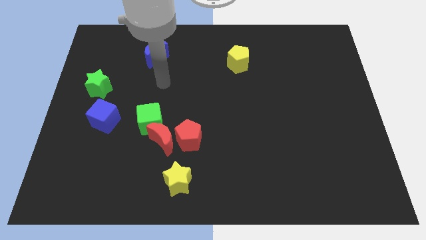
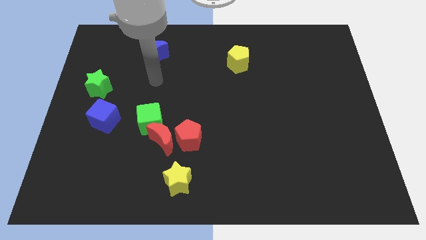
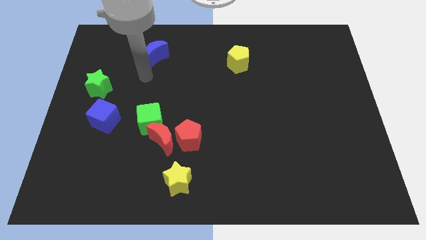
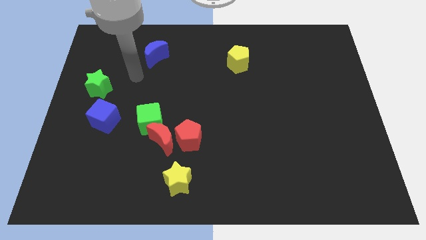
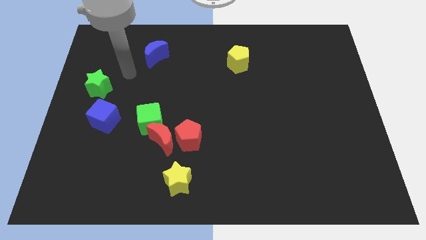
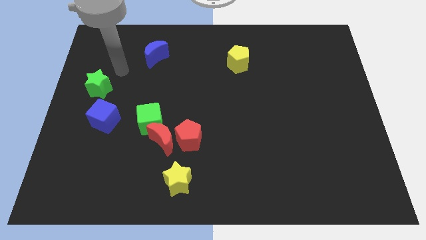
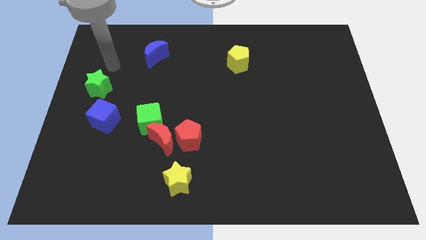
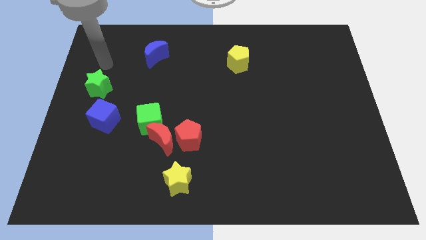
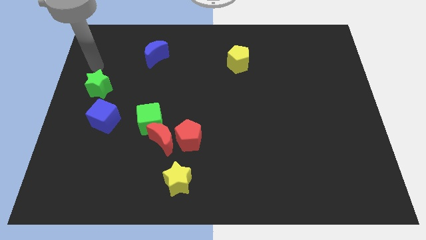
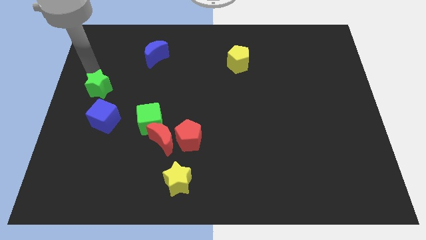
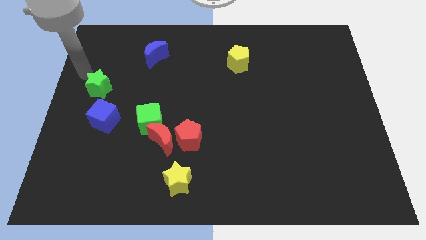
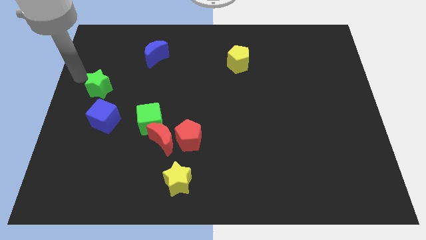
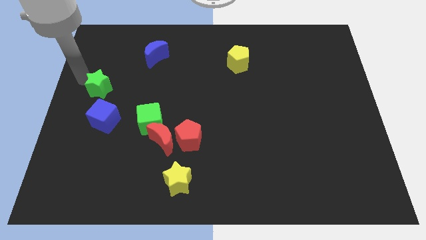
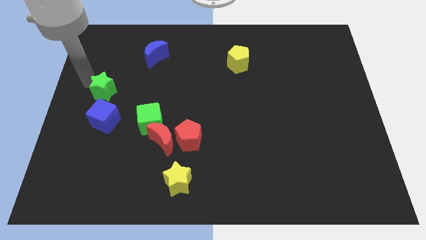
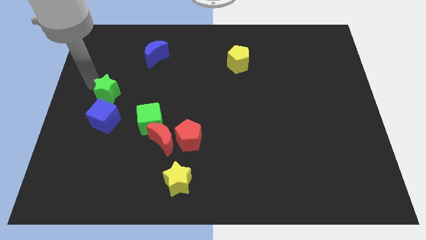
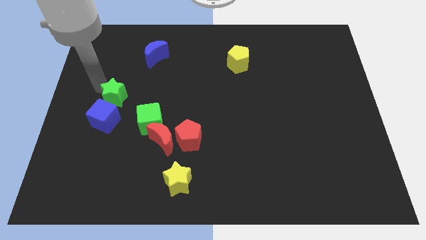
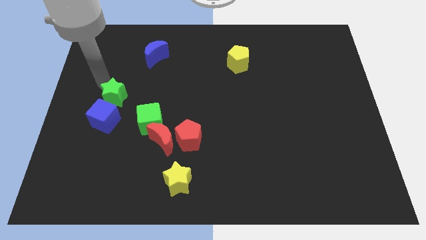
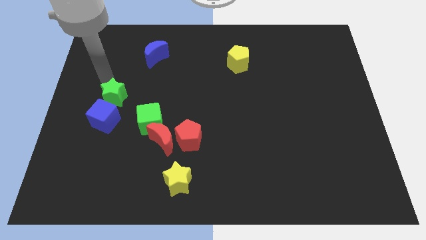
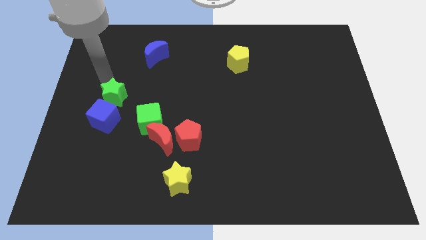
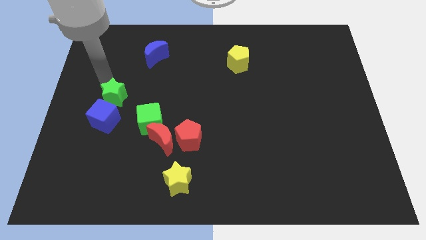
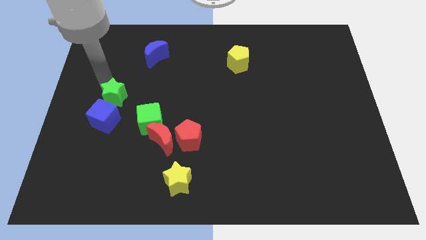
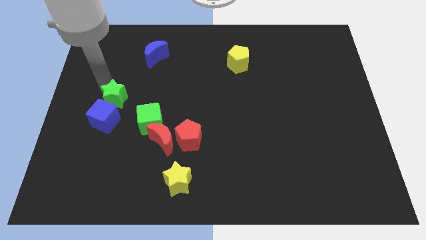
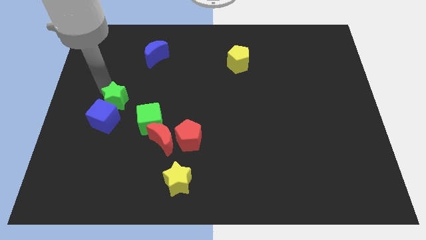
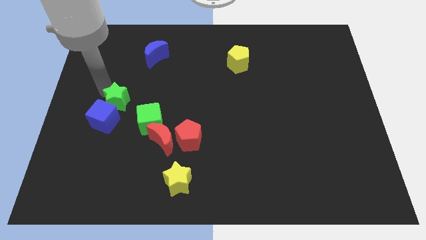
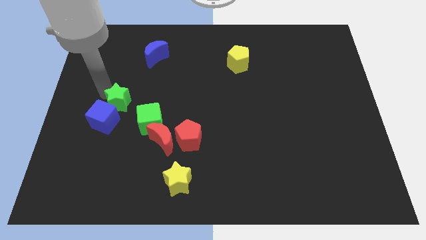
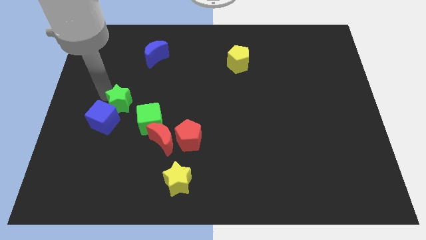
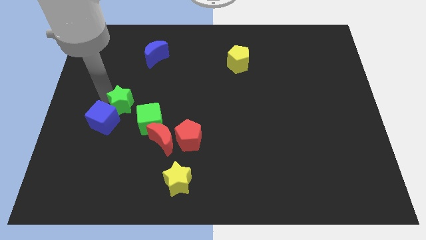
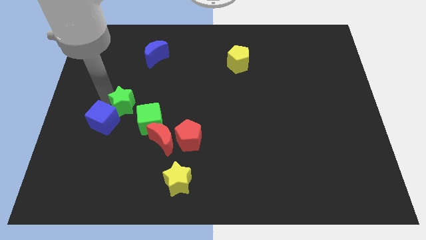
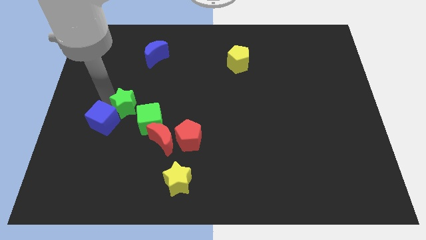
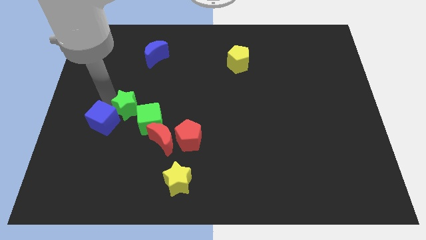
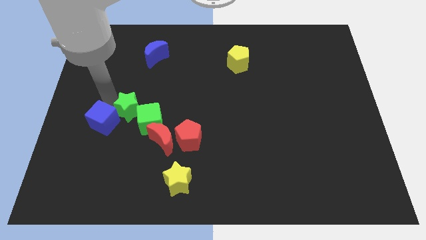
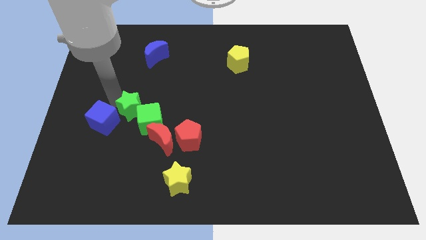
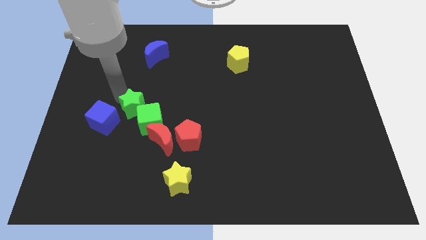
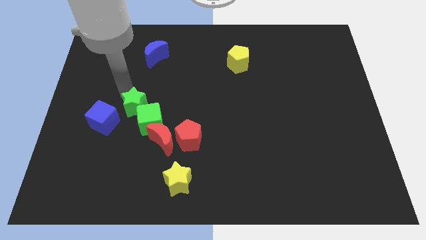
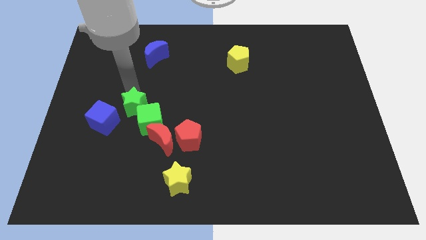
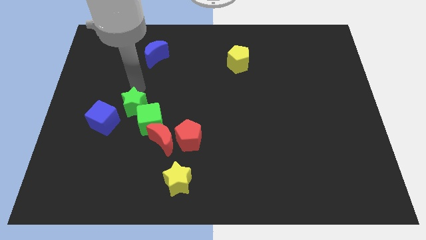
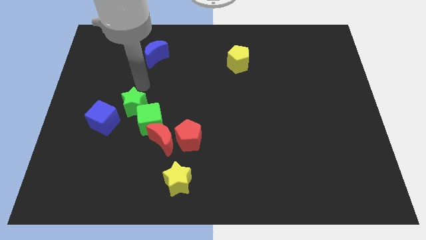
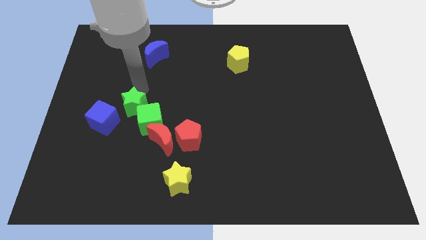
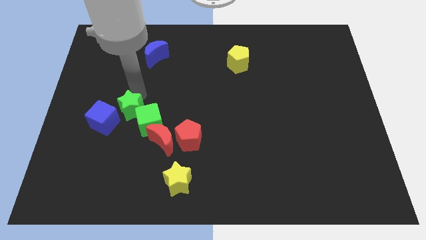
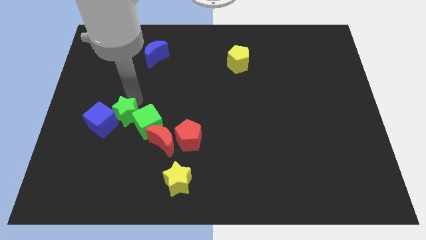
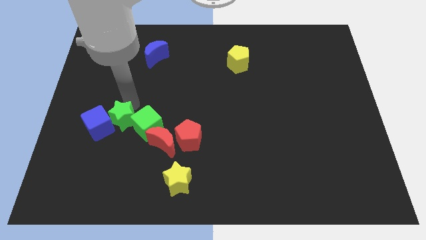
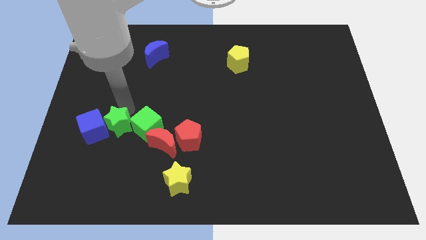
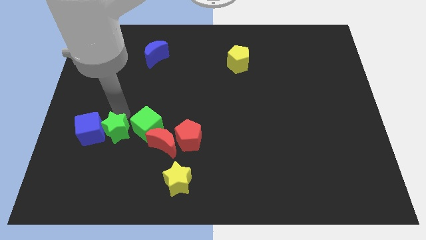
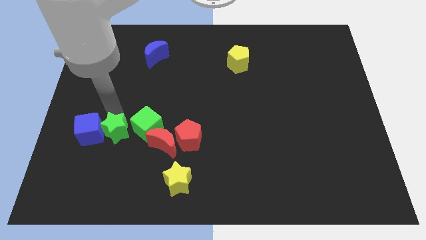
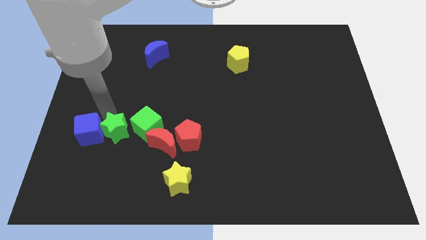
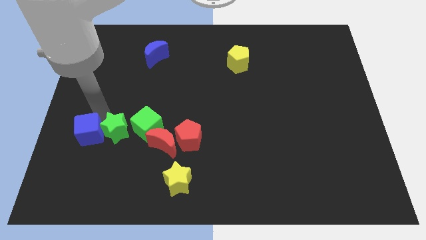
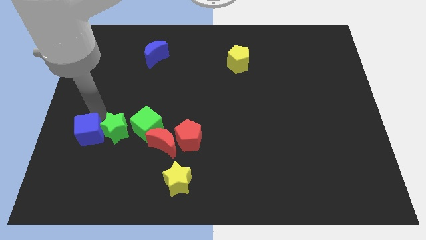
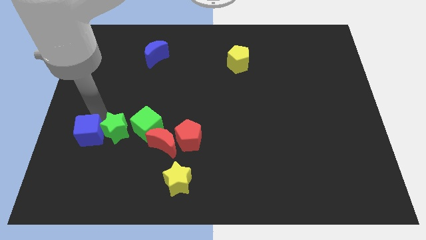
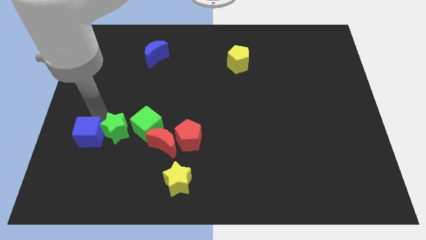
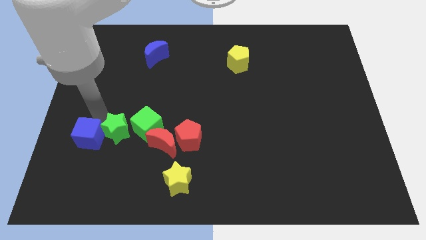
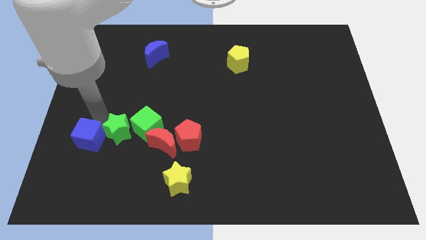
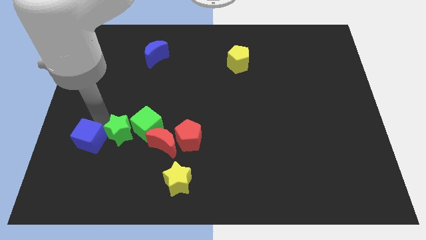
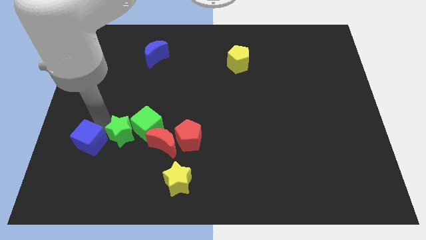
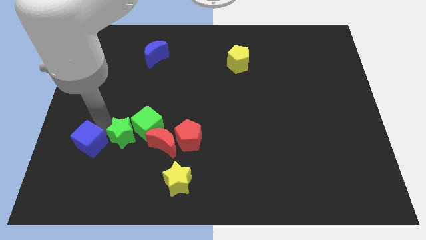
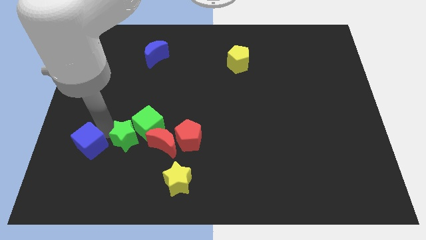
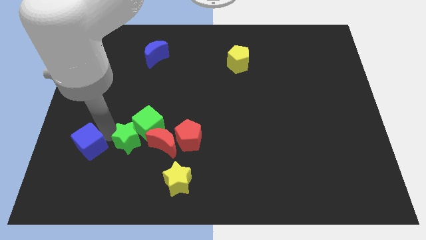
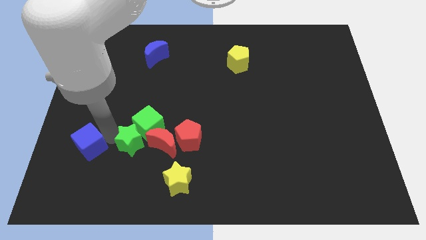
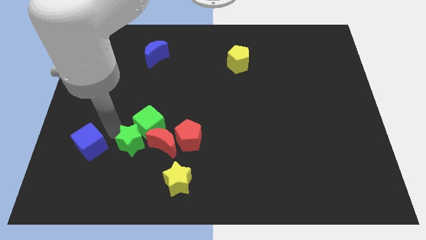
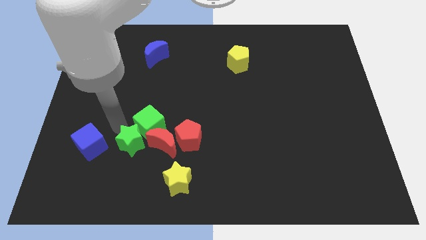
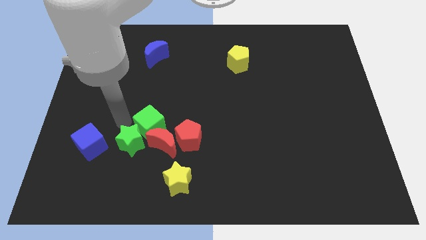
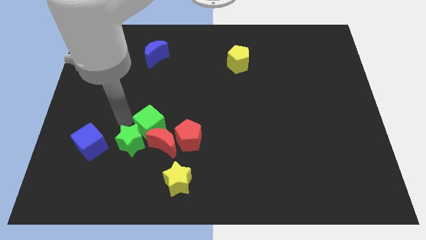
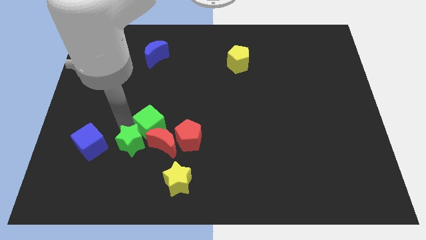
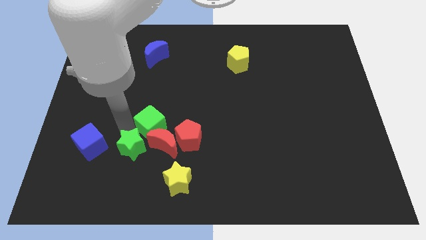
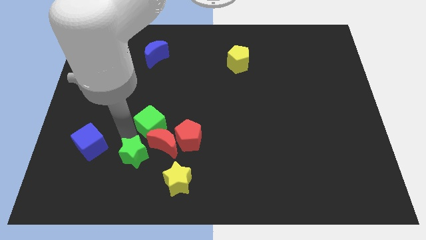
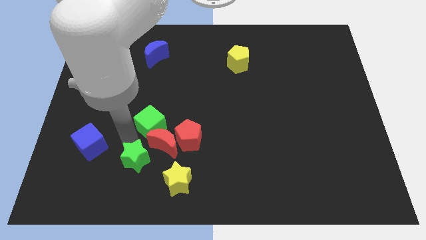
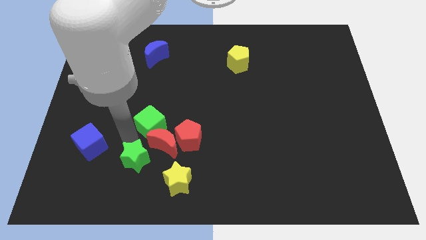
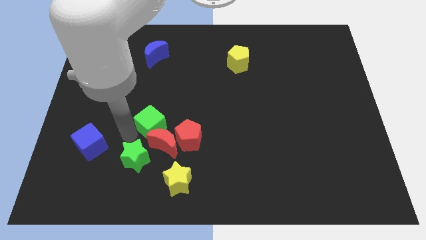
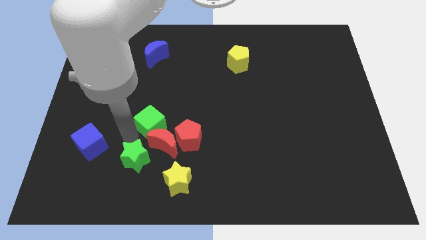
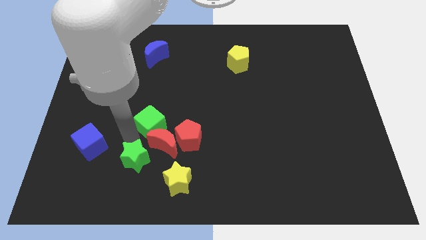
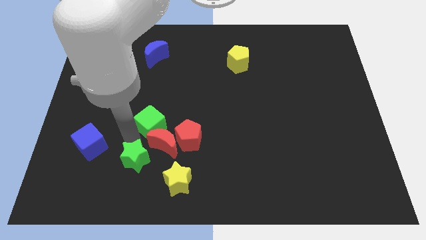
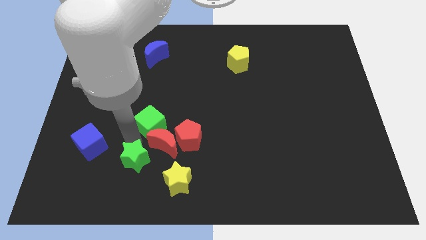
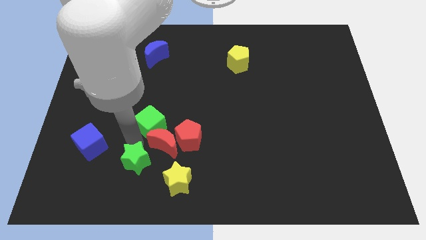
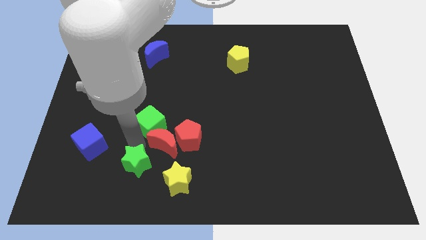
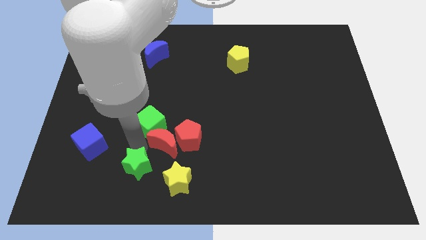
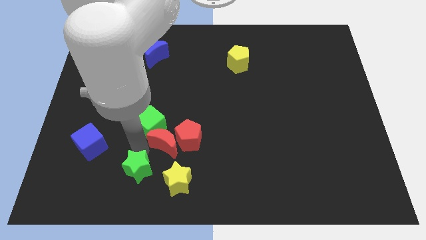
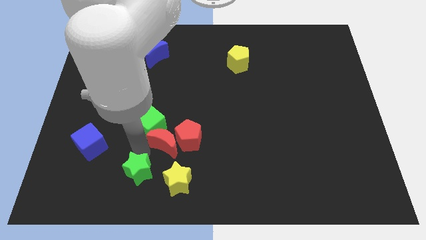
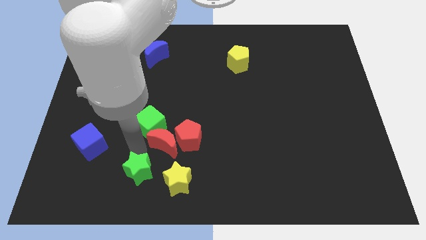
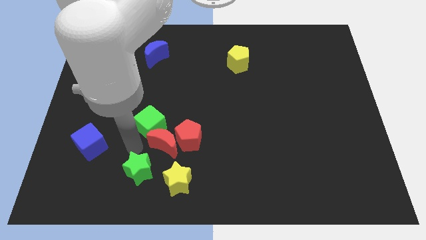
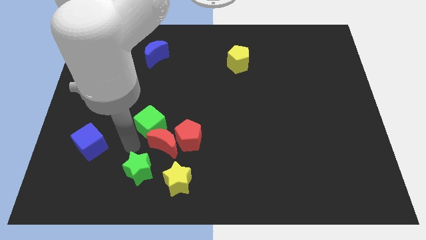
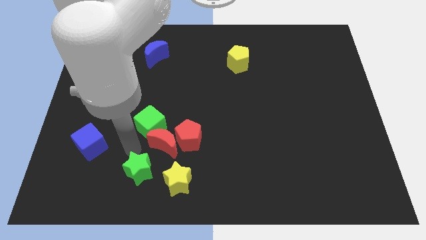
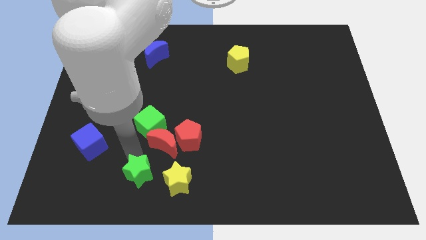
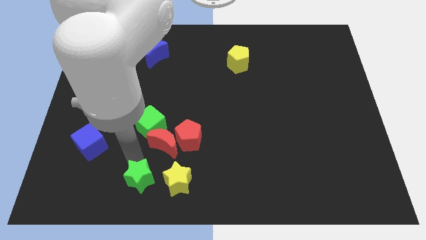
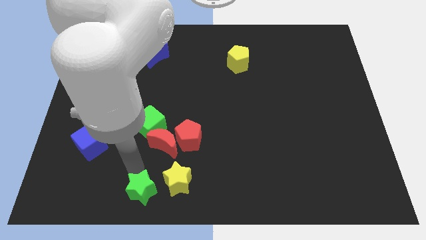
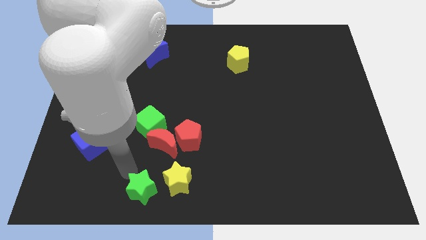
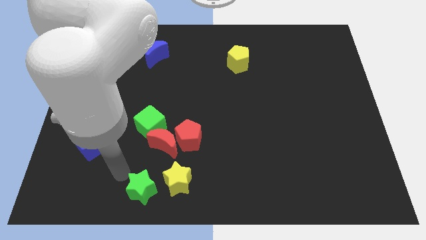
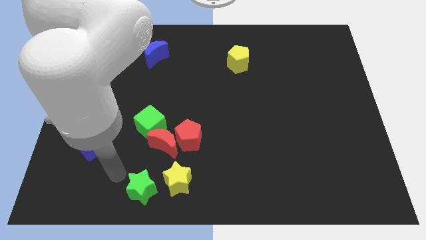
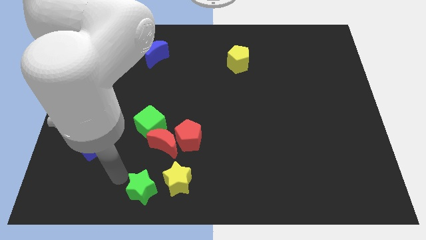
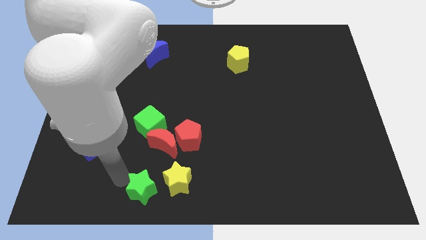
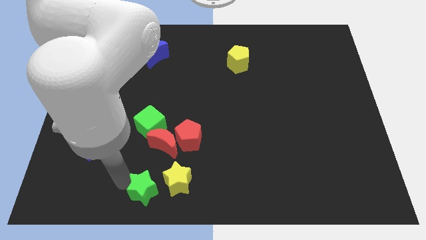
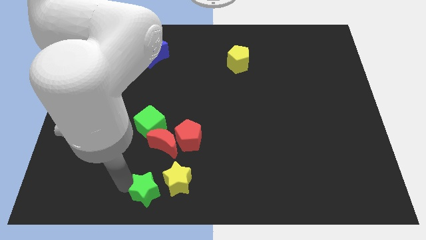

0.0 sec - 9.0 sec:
push the green star to the bottom
